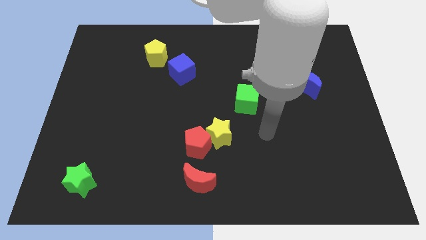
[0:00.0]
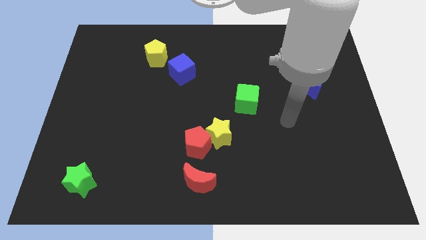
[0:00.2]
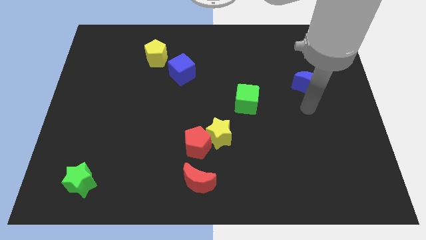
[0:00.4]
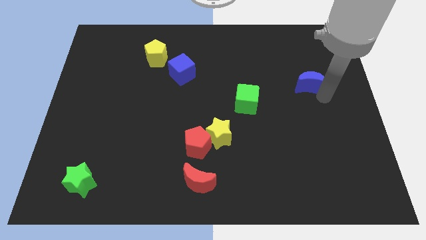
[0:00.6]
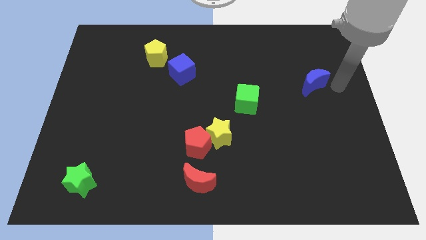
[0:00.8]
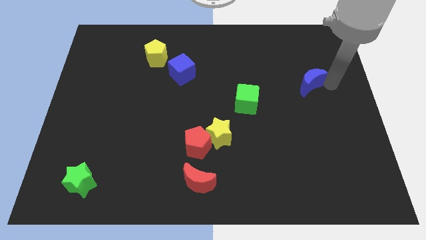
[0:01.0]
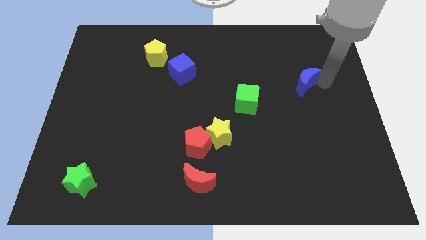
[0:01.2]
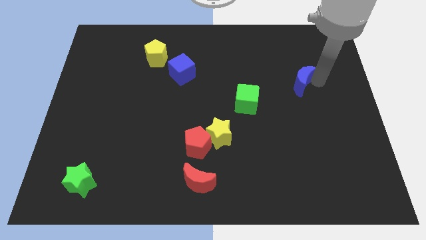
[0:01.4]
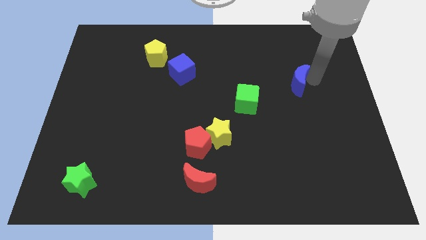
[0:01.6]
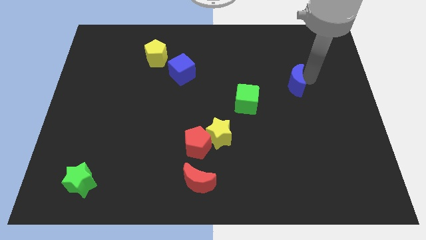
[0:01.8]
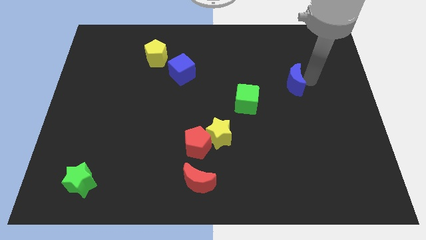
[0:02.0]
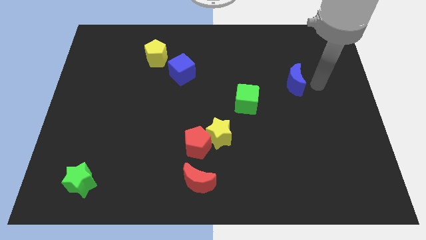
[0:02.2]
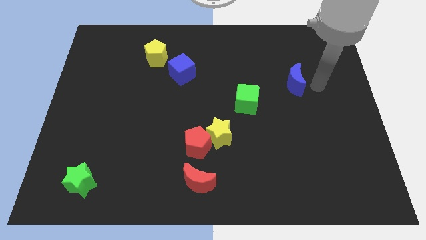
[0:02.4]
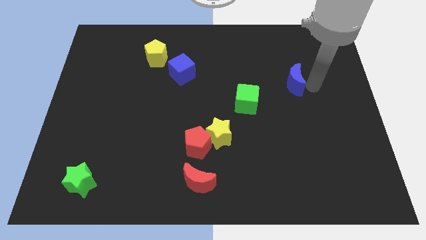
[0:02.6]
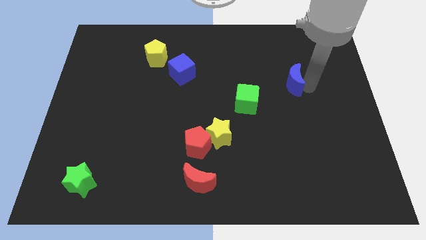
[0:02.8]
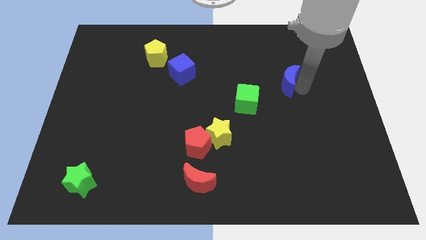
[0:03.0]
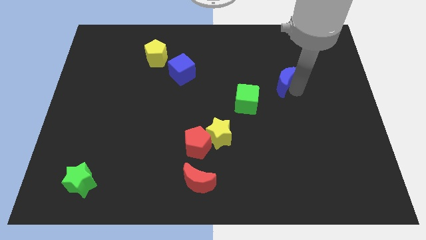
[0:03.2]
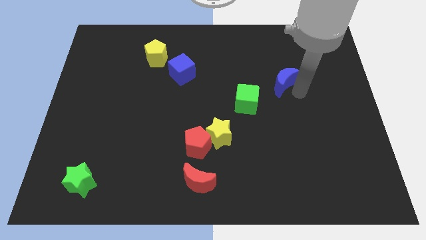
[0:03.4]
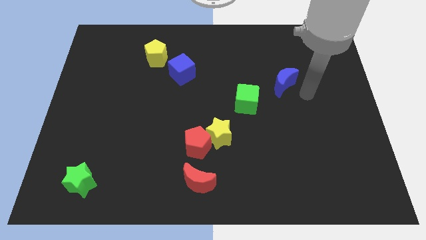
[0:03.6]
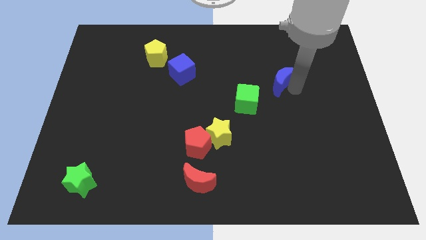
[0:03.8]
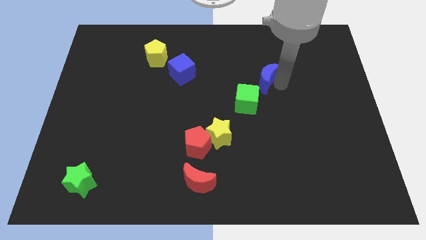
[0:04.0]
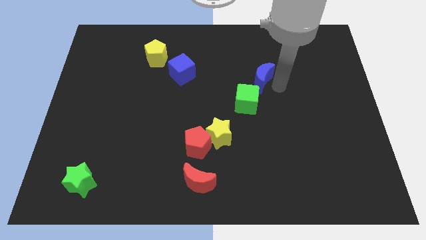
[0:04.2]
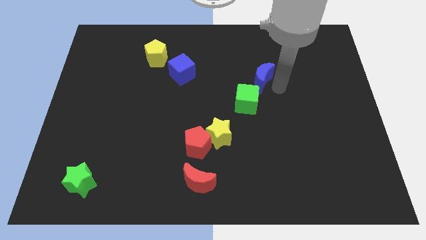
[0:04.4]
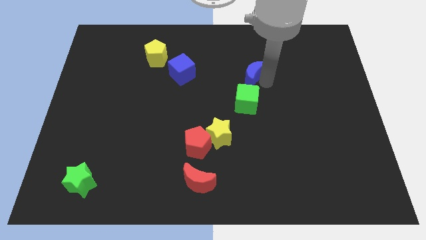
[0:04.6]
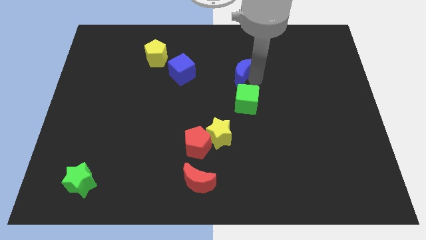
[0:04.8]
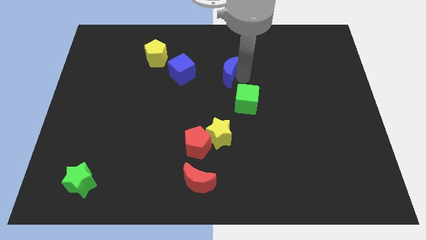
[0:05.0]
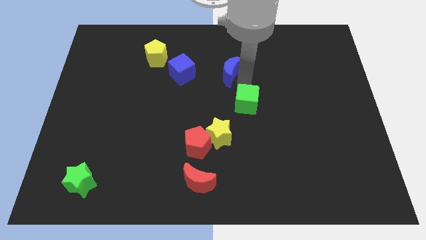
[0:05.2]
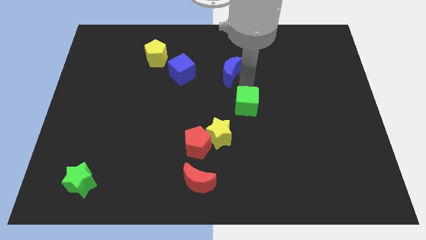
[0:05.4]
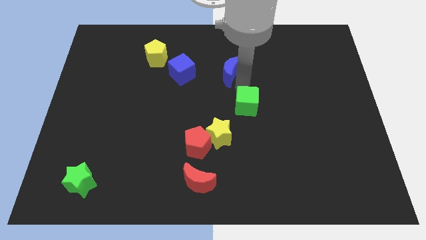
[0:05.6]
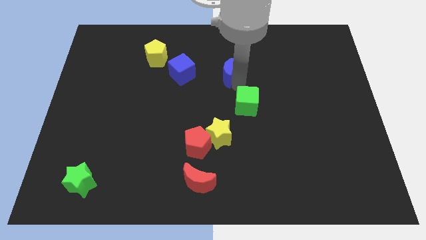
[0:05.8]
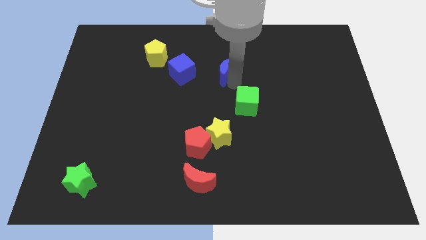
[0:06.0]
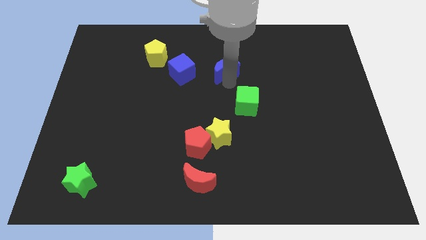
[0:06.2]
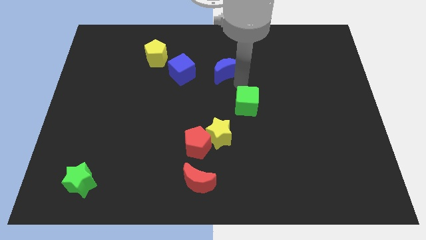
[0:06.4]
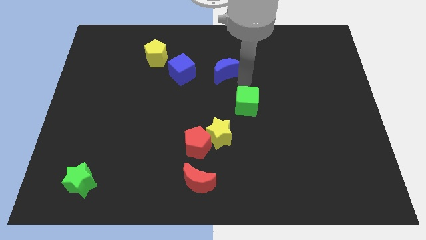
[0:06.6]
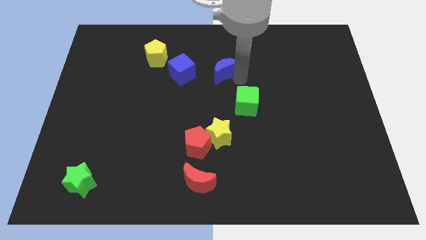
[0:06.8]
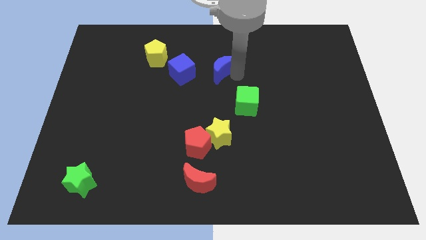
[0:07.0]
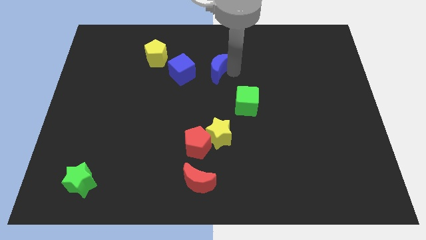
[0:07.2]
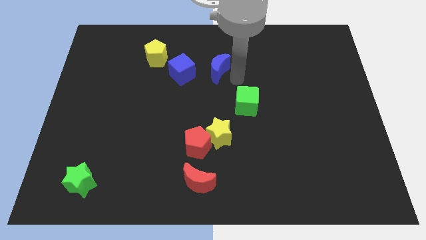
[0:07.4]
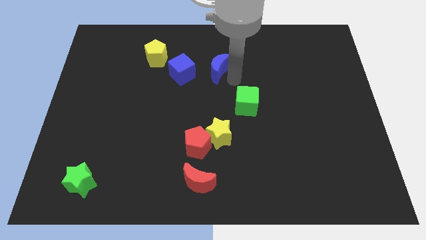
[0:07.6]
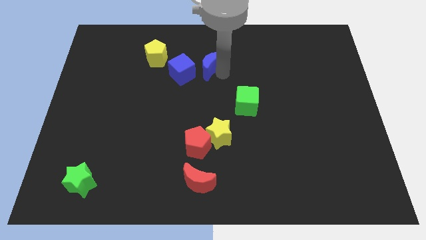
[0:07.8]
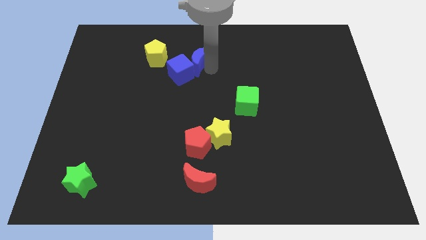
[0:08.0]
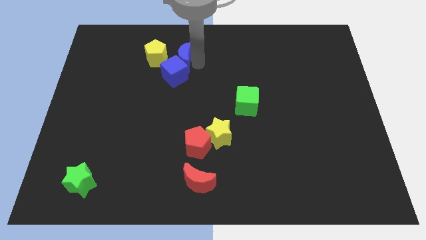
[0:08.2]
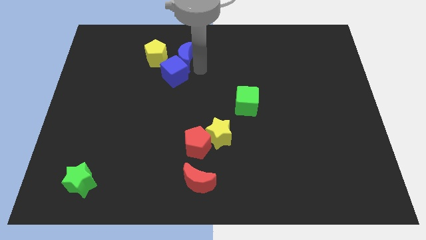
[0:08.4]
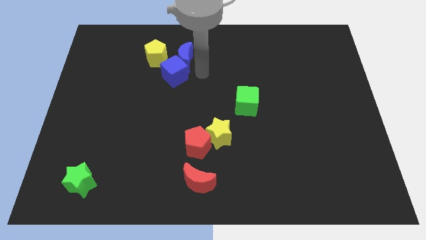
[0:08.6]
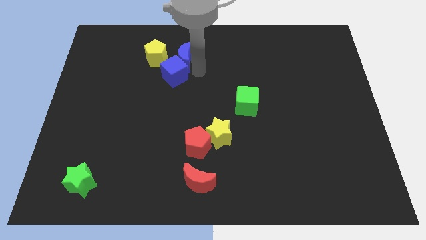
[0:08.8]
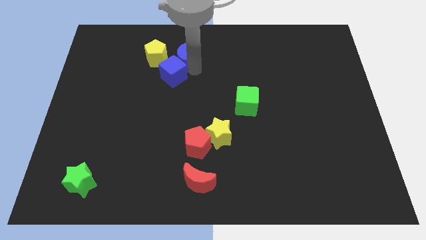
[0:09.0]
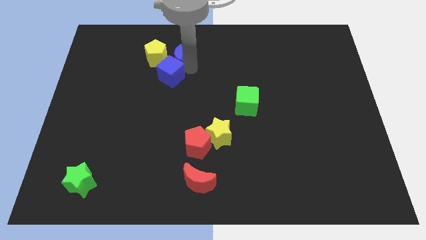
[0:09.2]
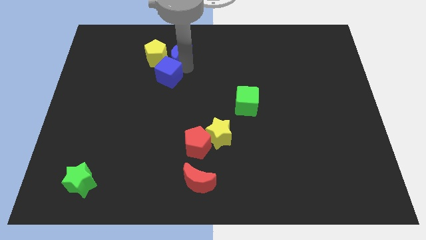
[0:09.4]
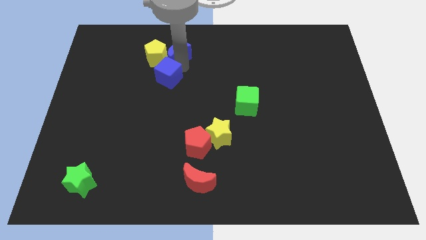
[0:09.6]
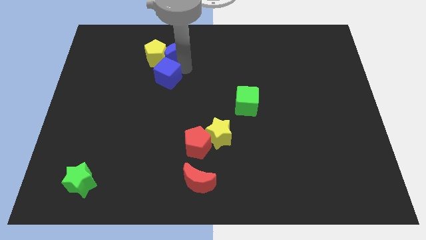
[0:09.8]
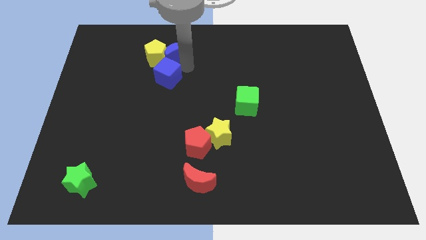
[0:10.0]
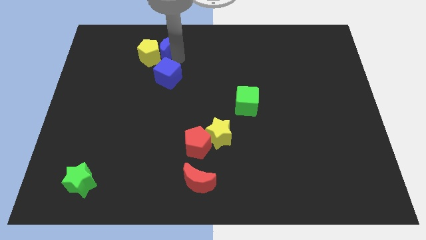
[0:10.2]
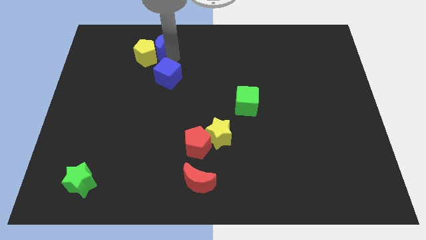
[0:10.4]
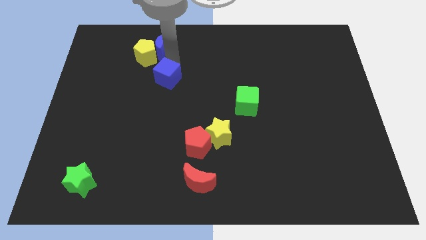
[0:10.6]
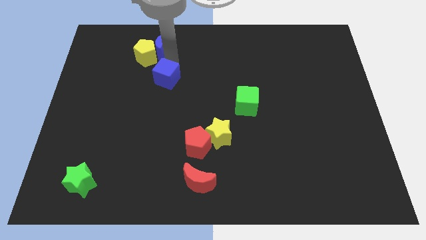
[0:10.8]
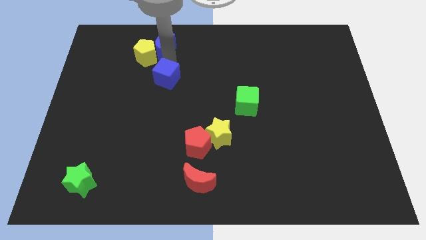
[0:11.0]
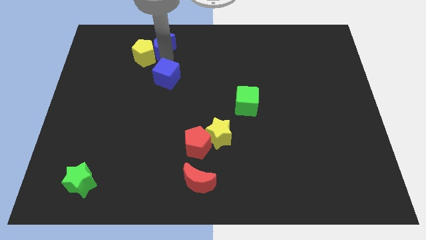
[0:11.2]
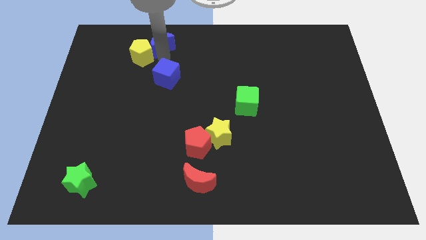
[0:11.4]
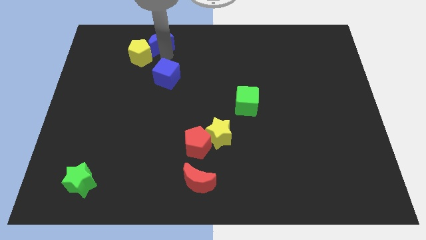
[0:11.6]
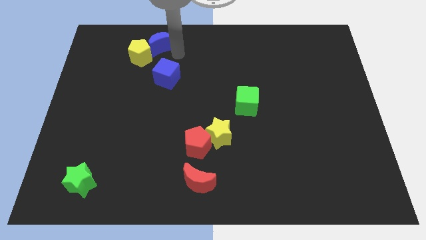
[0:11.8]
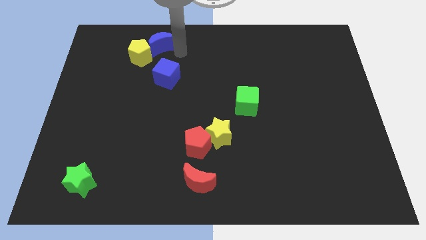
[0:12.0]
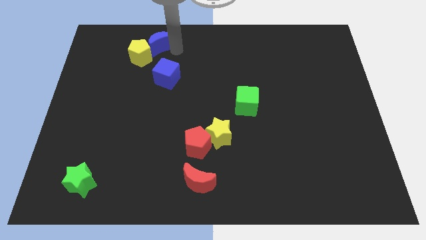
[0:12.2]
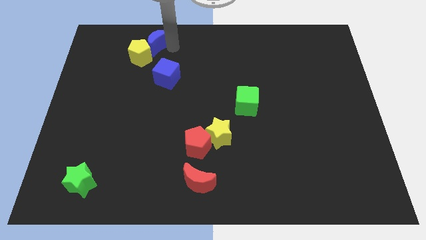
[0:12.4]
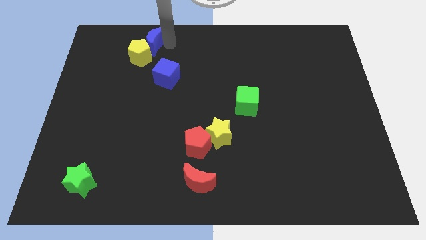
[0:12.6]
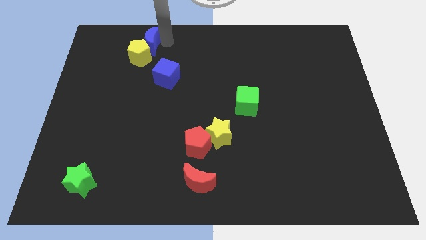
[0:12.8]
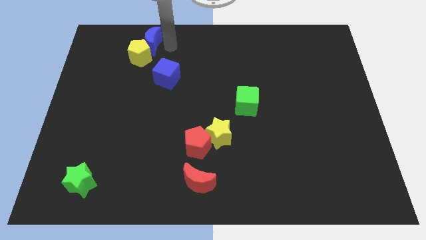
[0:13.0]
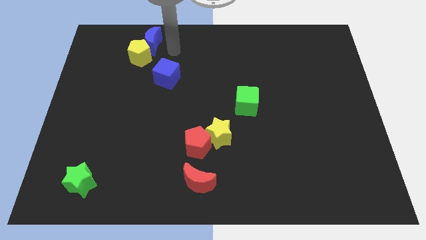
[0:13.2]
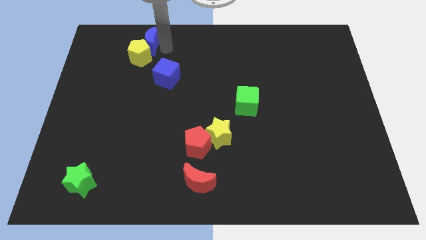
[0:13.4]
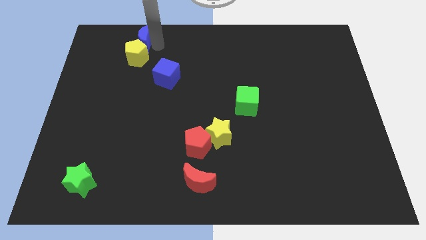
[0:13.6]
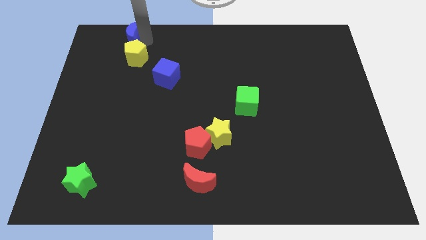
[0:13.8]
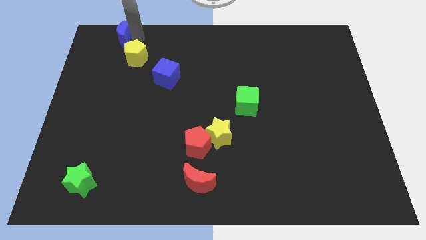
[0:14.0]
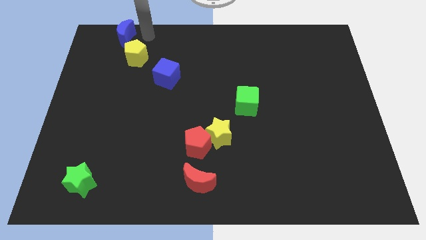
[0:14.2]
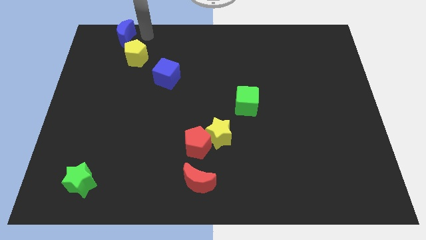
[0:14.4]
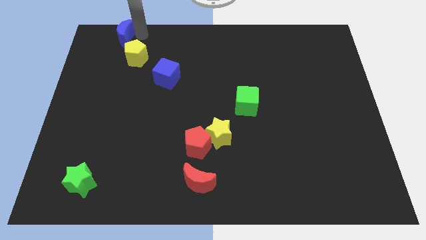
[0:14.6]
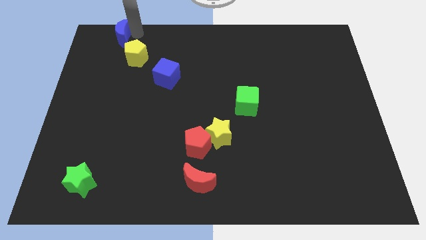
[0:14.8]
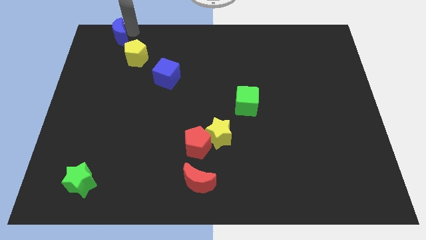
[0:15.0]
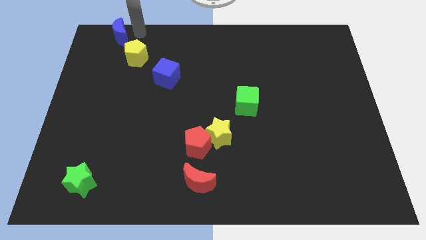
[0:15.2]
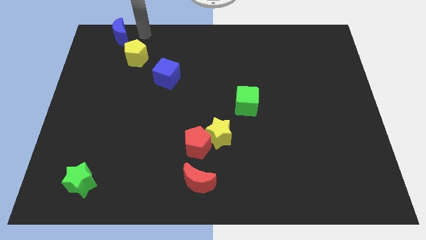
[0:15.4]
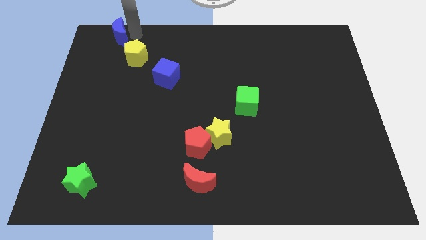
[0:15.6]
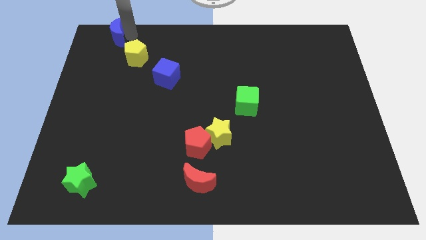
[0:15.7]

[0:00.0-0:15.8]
put the blue moon to the top left
